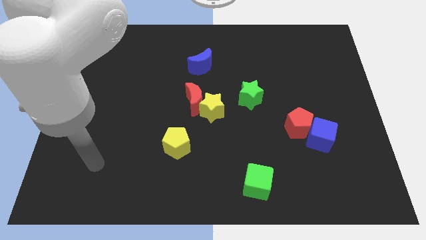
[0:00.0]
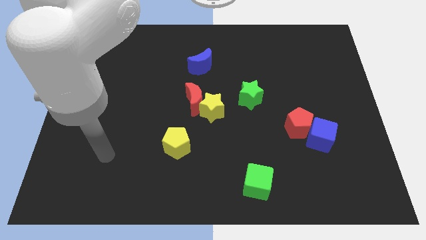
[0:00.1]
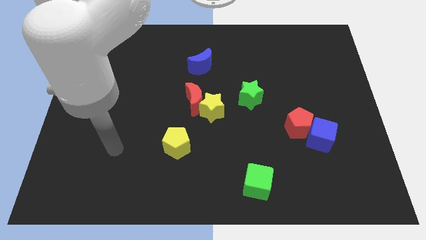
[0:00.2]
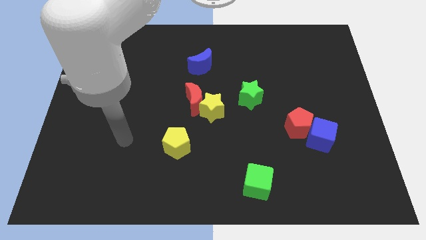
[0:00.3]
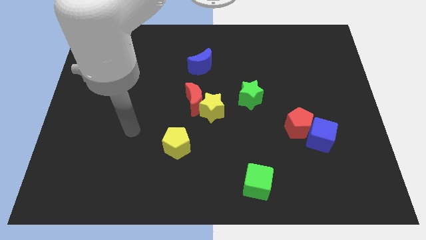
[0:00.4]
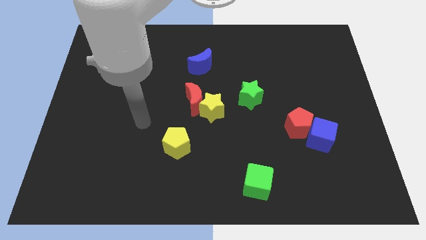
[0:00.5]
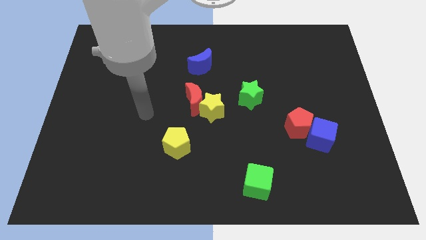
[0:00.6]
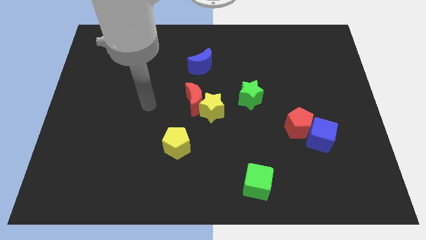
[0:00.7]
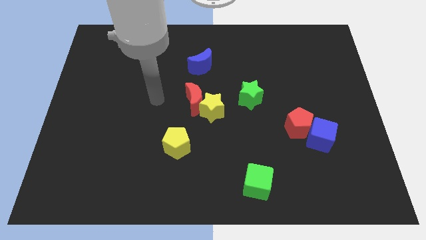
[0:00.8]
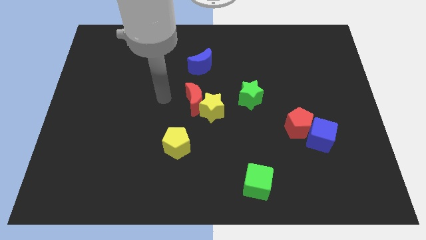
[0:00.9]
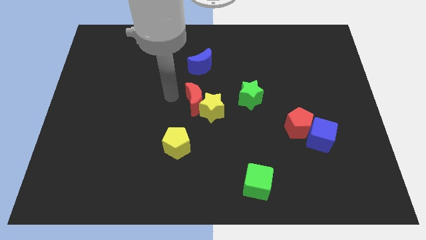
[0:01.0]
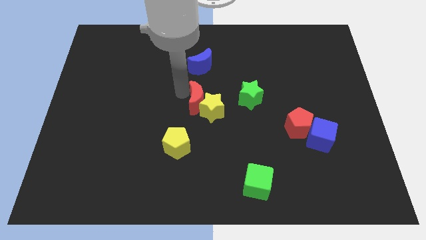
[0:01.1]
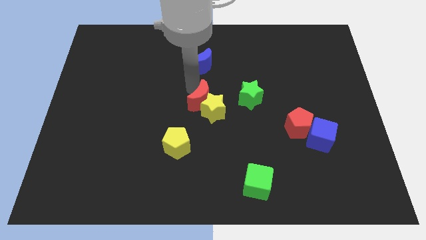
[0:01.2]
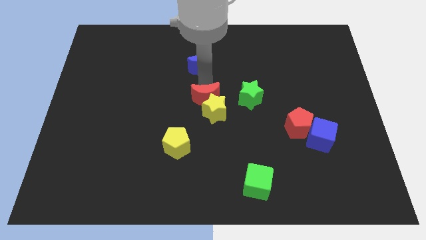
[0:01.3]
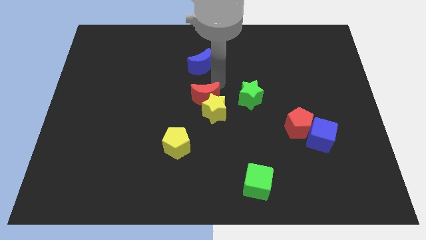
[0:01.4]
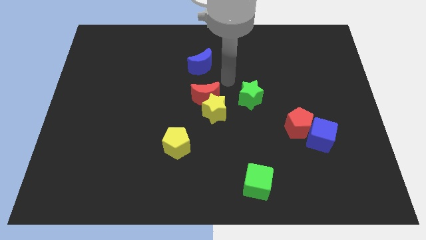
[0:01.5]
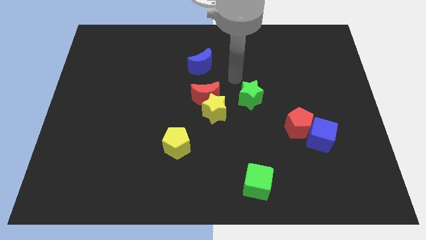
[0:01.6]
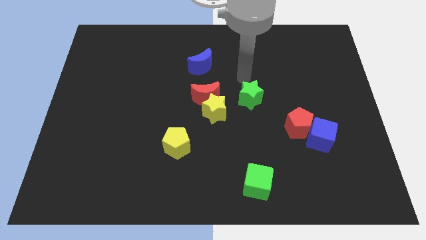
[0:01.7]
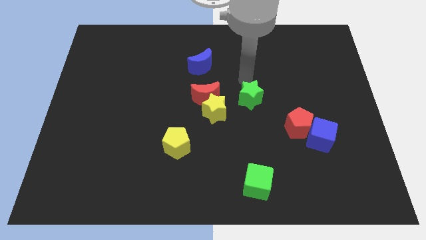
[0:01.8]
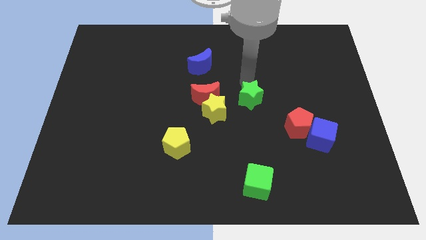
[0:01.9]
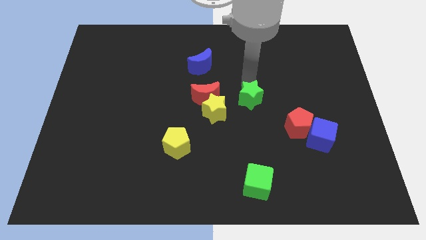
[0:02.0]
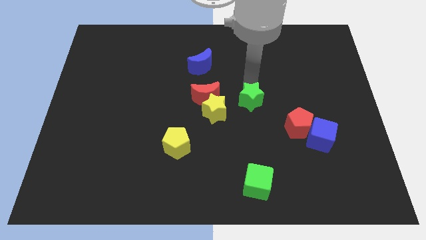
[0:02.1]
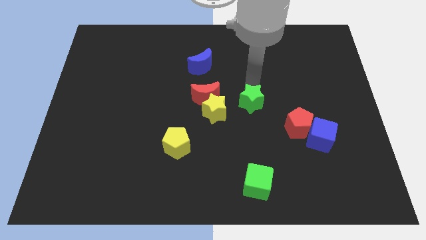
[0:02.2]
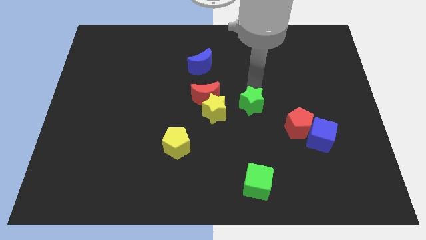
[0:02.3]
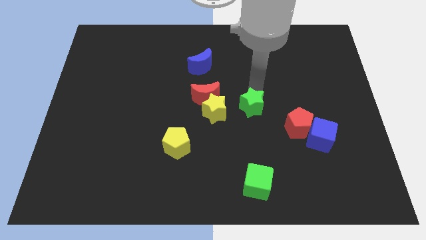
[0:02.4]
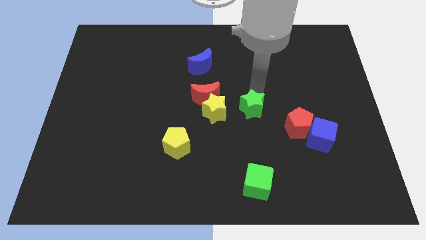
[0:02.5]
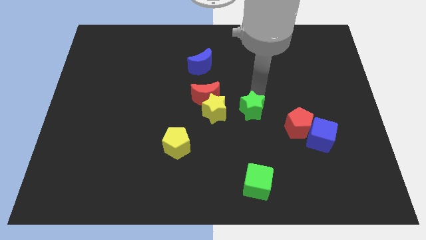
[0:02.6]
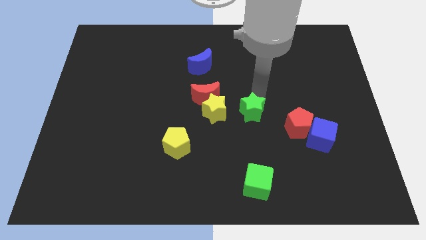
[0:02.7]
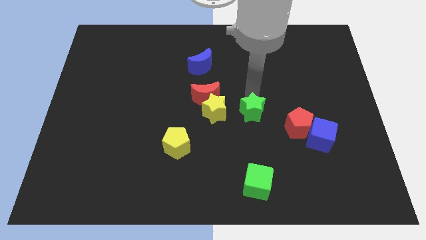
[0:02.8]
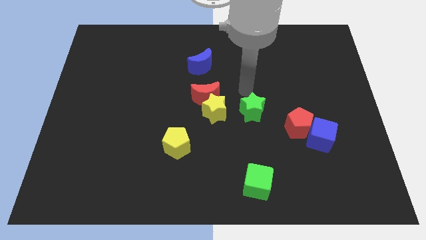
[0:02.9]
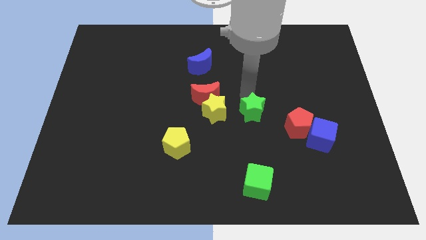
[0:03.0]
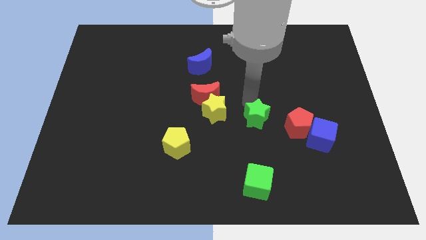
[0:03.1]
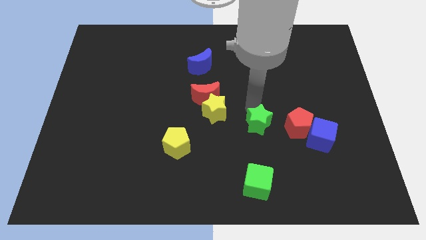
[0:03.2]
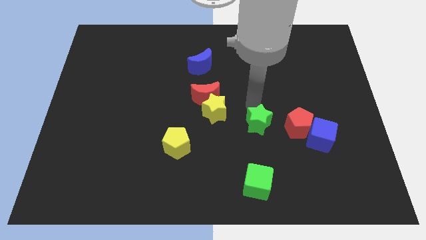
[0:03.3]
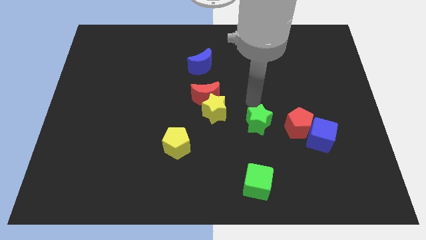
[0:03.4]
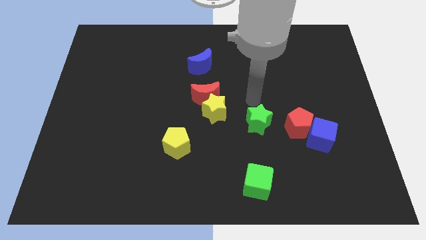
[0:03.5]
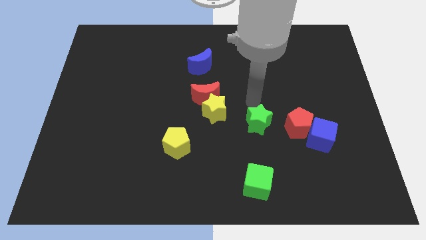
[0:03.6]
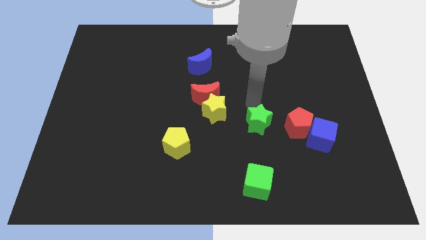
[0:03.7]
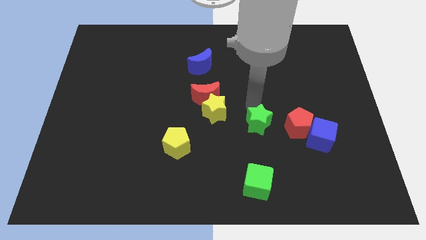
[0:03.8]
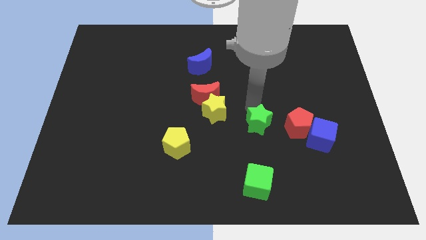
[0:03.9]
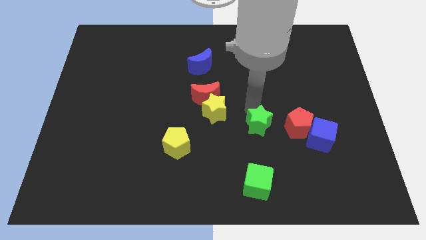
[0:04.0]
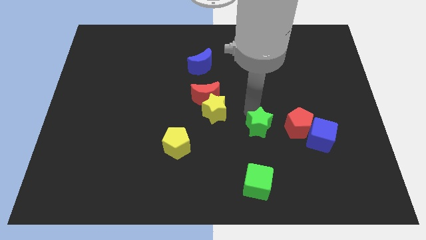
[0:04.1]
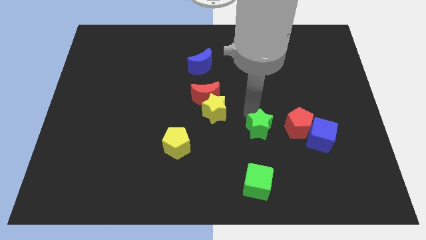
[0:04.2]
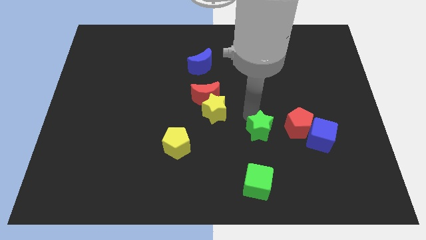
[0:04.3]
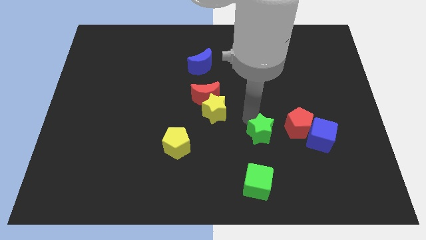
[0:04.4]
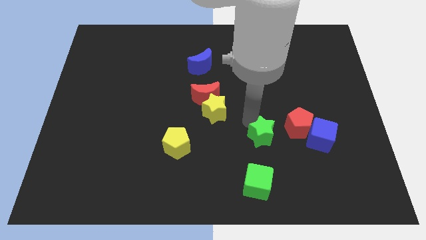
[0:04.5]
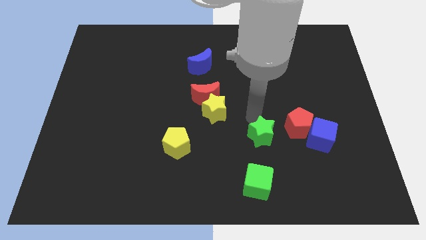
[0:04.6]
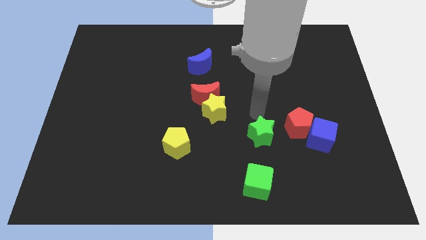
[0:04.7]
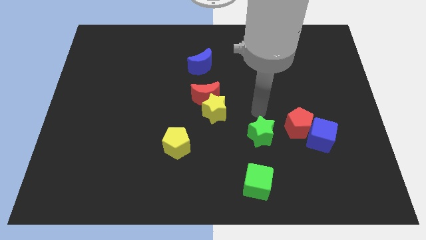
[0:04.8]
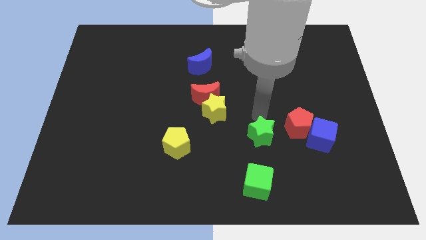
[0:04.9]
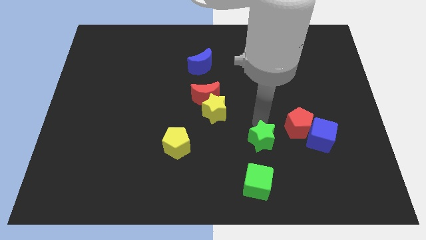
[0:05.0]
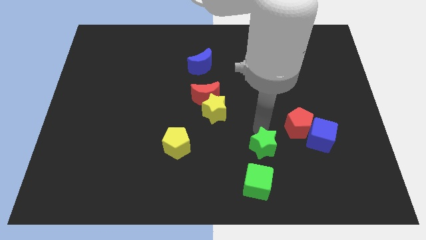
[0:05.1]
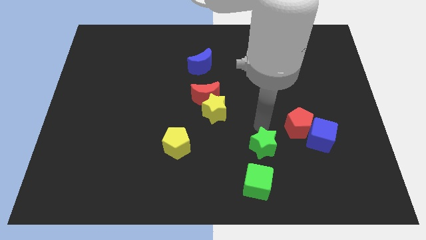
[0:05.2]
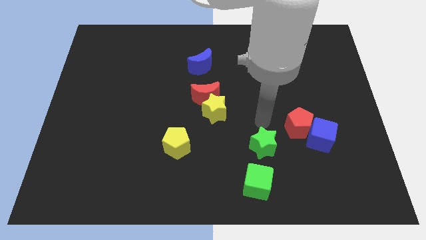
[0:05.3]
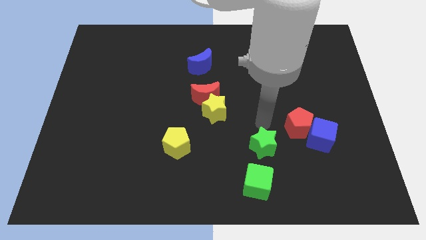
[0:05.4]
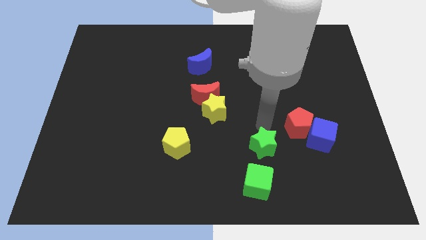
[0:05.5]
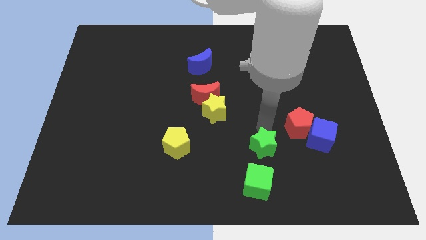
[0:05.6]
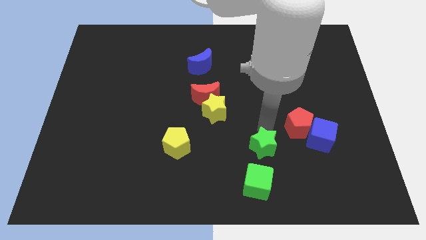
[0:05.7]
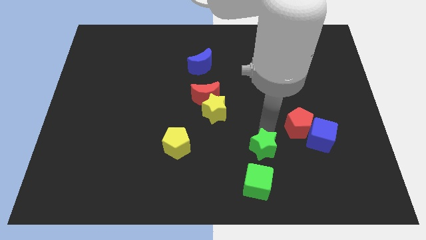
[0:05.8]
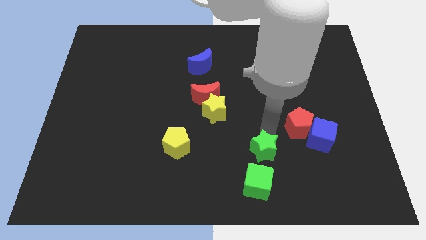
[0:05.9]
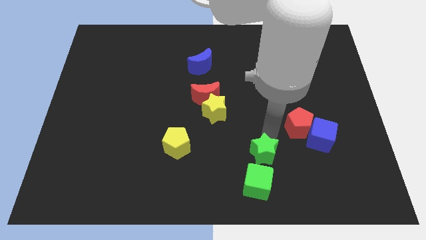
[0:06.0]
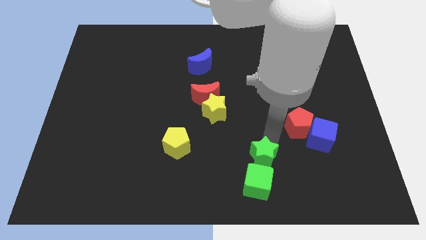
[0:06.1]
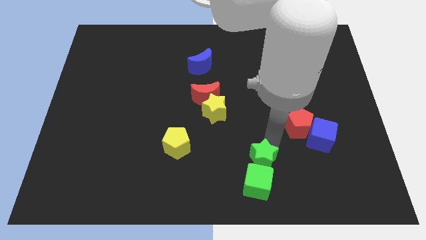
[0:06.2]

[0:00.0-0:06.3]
put the green star towards the green cube
